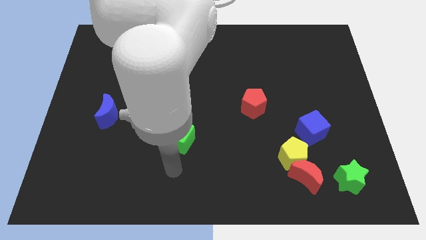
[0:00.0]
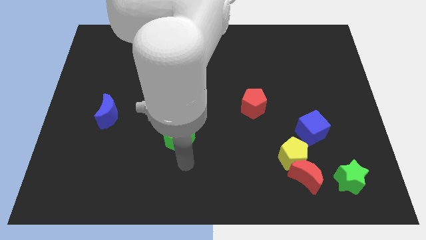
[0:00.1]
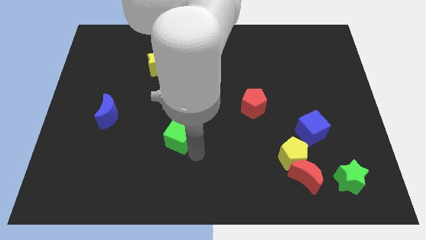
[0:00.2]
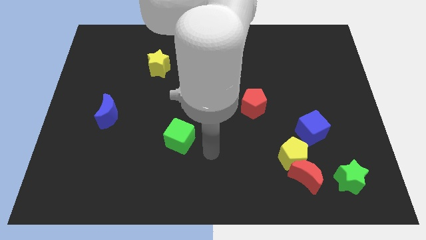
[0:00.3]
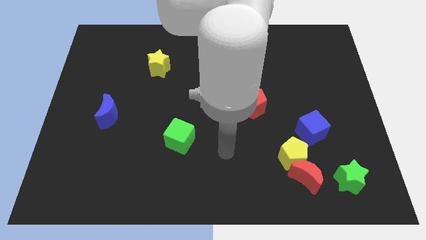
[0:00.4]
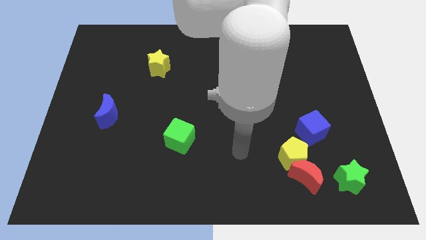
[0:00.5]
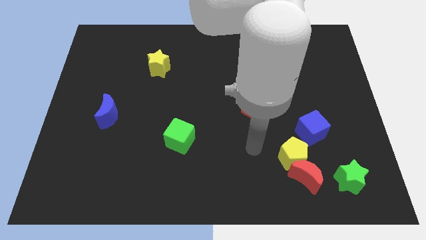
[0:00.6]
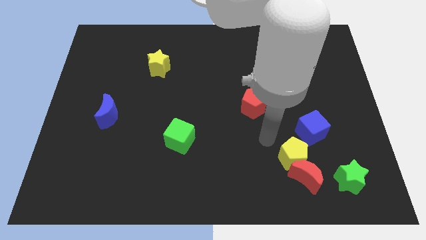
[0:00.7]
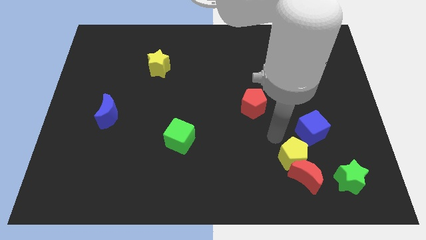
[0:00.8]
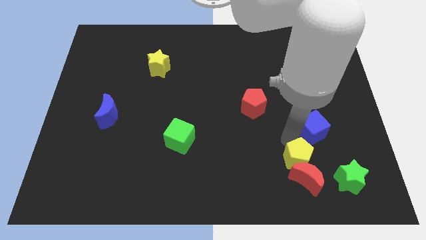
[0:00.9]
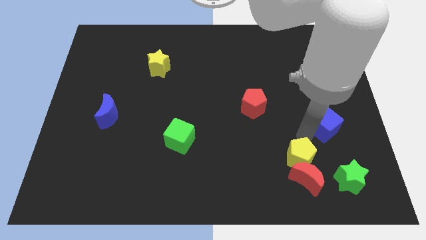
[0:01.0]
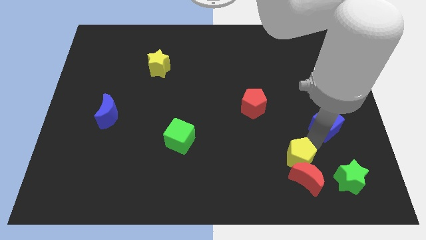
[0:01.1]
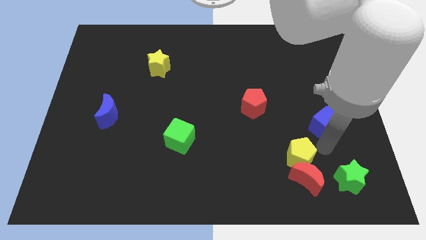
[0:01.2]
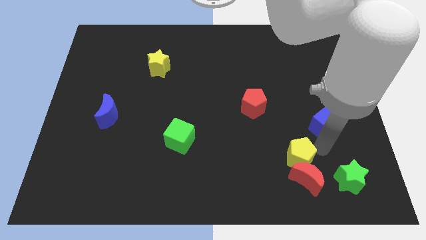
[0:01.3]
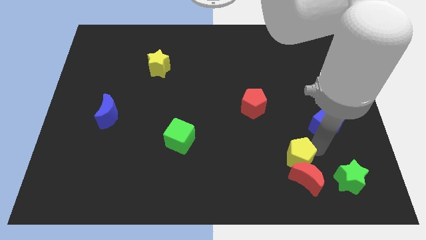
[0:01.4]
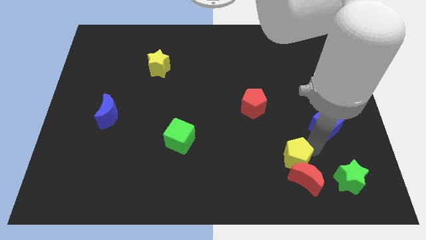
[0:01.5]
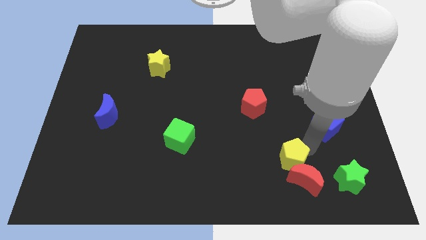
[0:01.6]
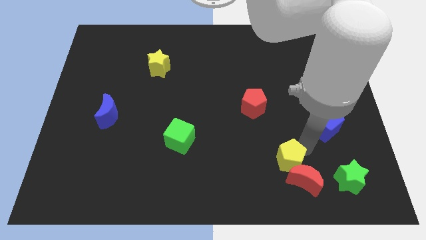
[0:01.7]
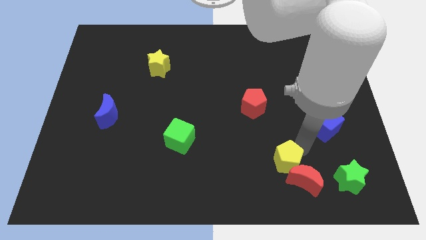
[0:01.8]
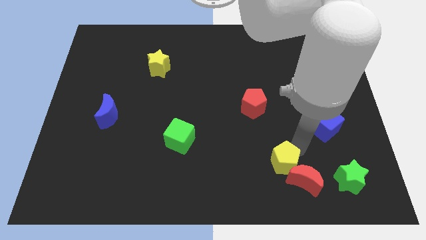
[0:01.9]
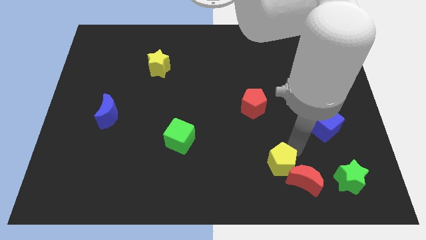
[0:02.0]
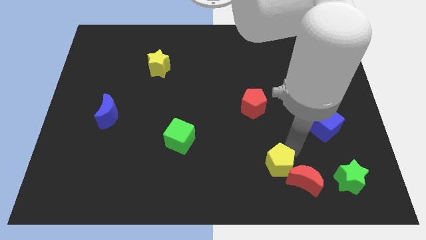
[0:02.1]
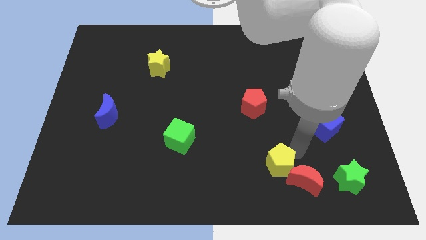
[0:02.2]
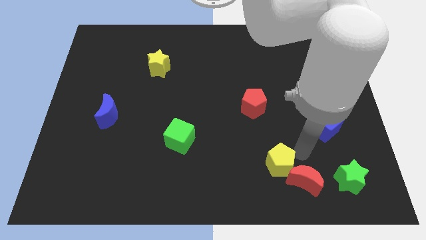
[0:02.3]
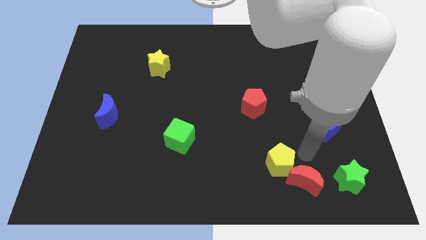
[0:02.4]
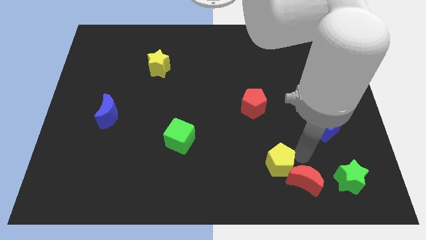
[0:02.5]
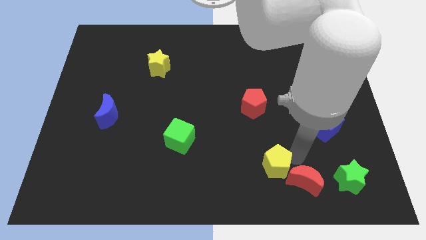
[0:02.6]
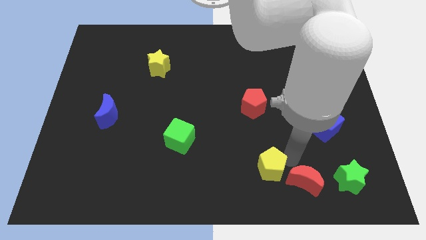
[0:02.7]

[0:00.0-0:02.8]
move the yellow pentagon away from the red moon and blue cube

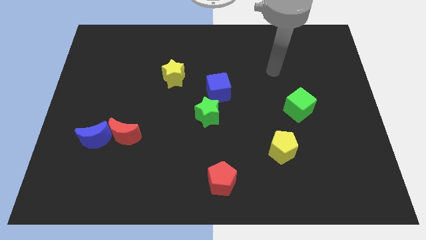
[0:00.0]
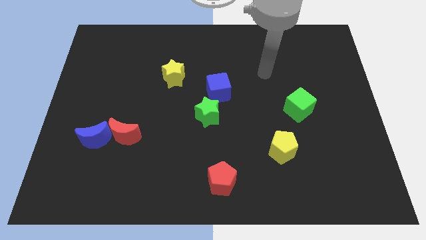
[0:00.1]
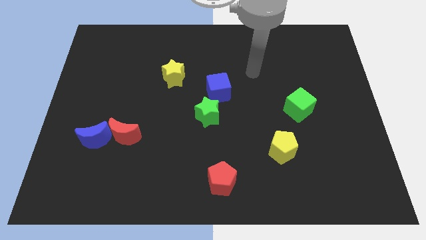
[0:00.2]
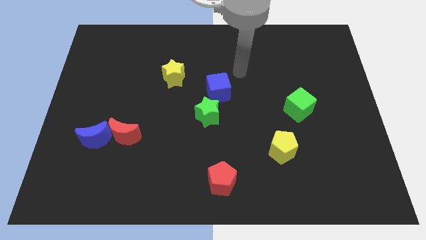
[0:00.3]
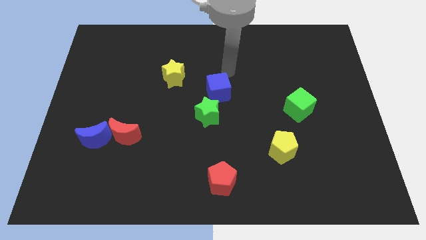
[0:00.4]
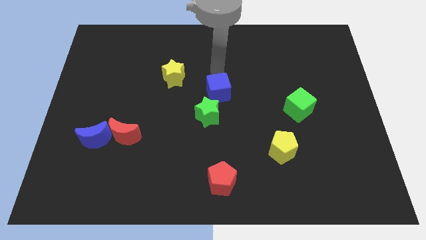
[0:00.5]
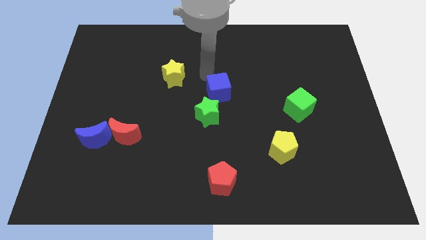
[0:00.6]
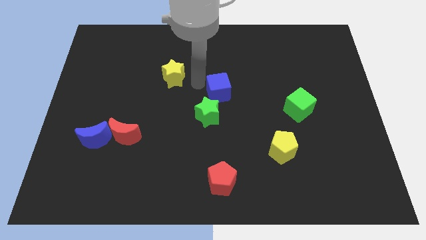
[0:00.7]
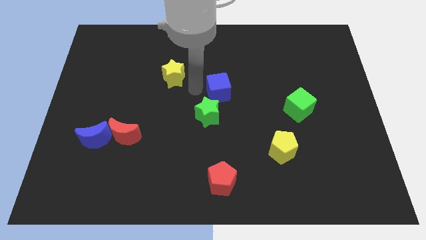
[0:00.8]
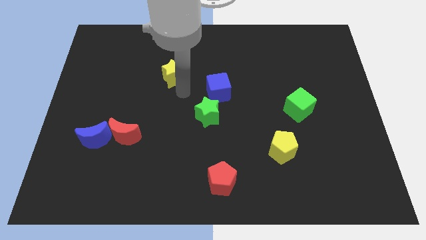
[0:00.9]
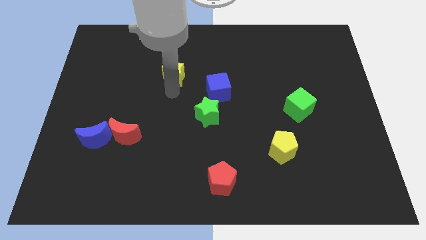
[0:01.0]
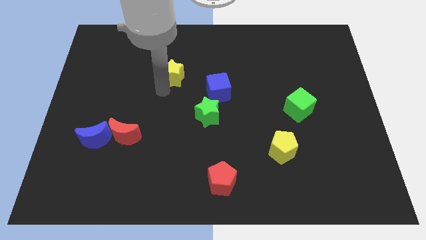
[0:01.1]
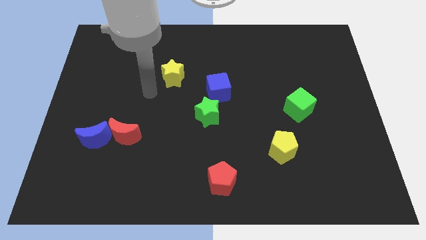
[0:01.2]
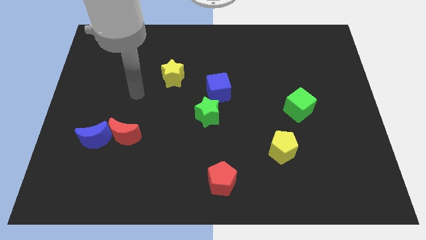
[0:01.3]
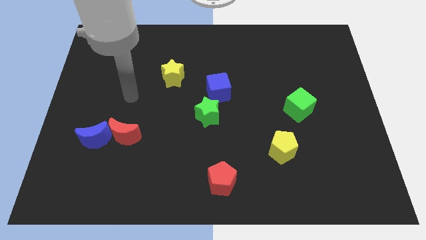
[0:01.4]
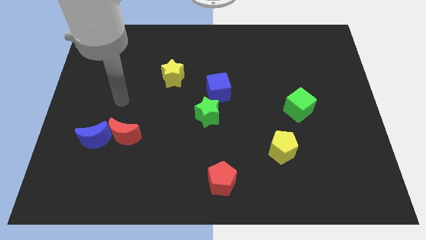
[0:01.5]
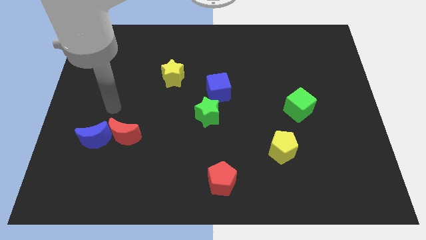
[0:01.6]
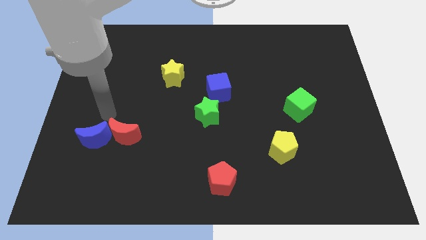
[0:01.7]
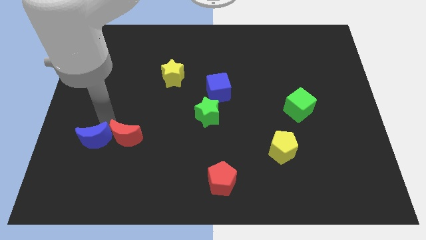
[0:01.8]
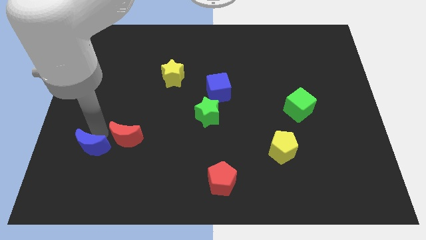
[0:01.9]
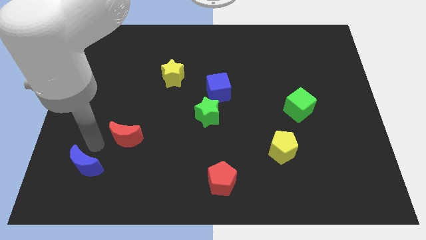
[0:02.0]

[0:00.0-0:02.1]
move the red moon away from the blue moon

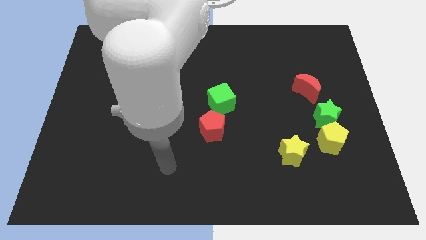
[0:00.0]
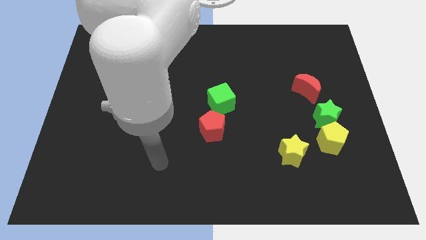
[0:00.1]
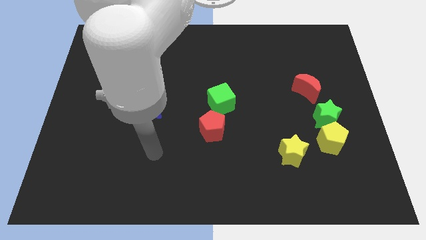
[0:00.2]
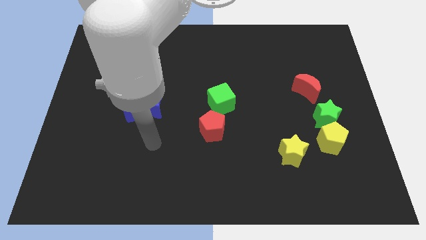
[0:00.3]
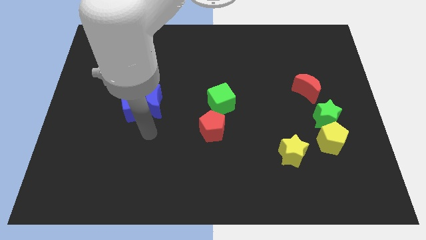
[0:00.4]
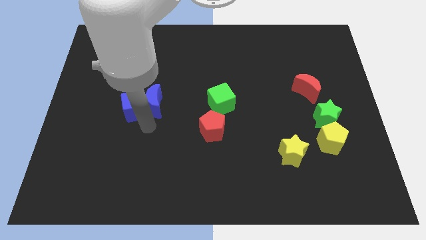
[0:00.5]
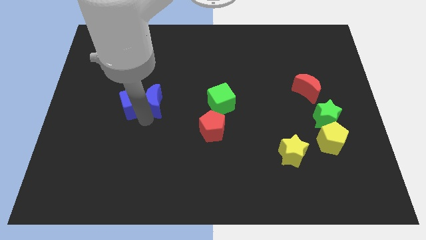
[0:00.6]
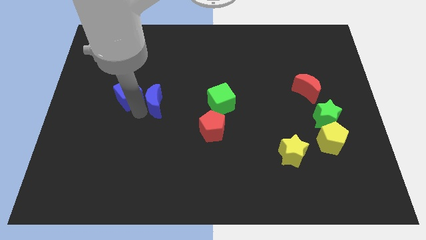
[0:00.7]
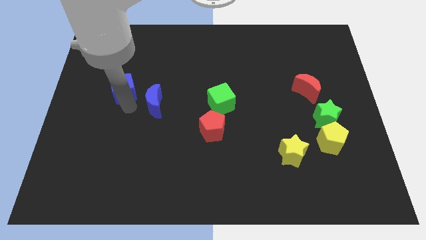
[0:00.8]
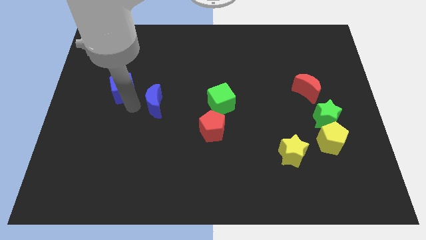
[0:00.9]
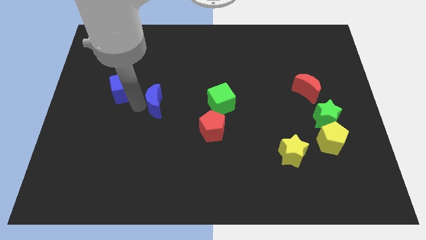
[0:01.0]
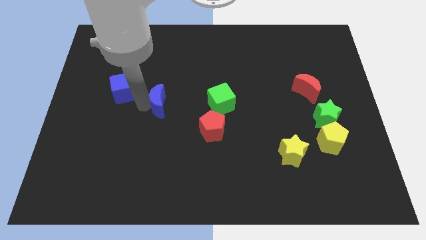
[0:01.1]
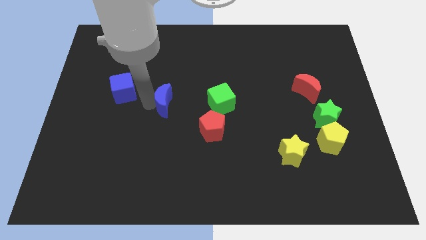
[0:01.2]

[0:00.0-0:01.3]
separate the blue moon from the blue cube

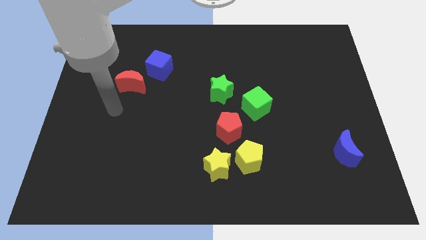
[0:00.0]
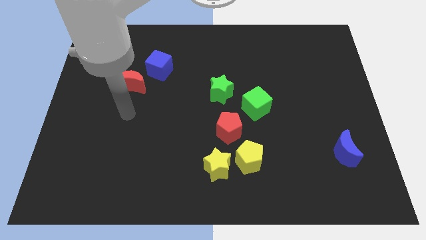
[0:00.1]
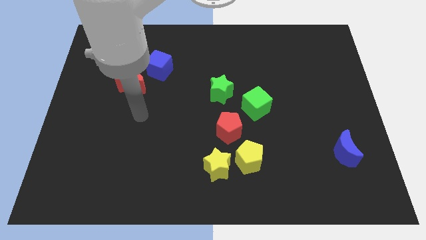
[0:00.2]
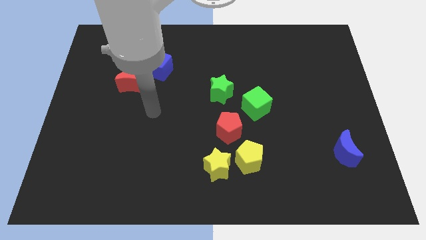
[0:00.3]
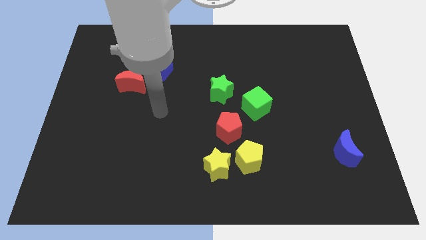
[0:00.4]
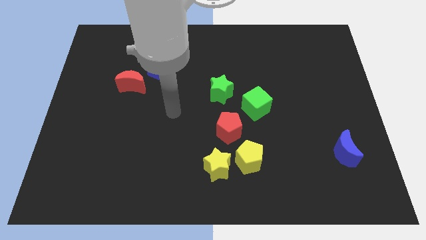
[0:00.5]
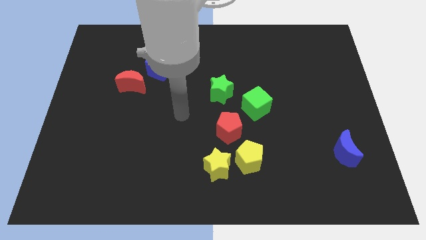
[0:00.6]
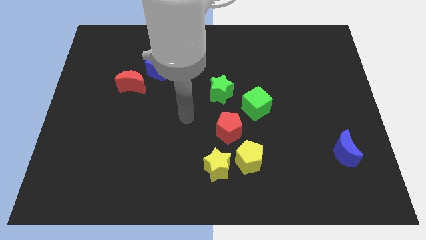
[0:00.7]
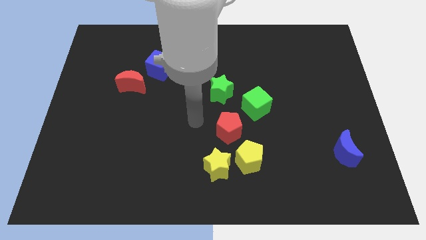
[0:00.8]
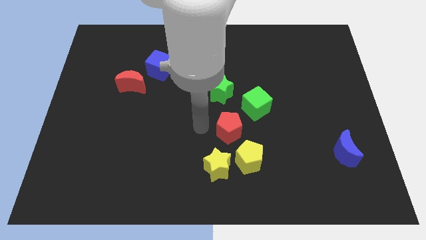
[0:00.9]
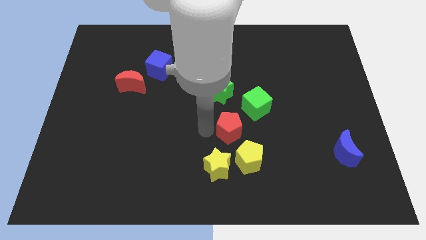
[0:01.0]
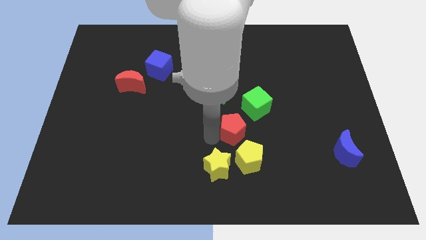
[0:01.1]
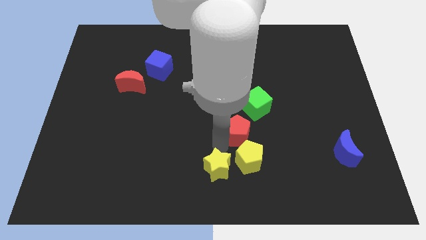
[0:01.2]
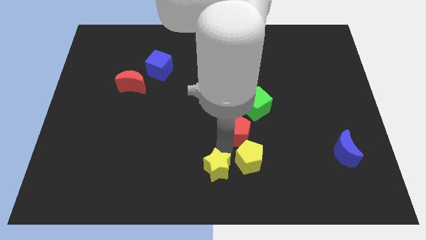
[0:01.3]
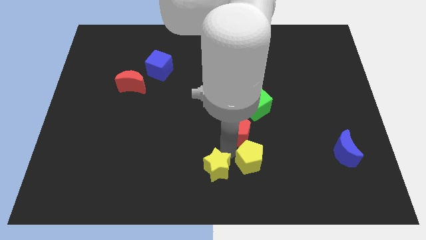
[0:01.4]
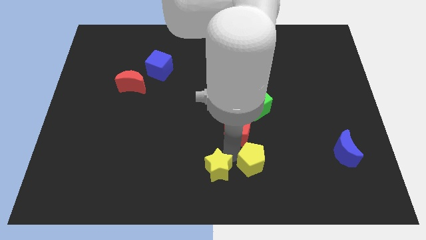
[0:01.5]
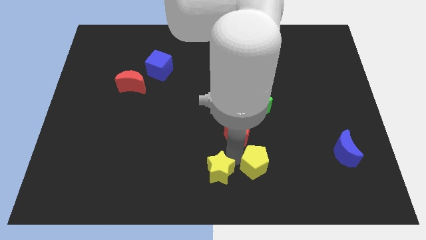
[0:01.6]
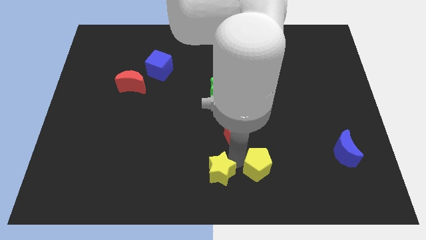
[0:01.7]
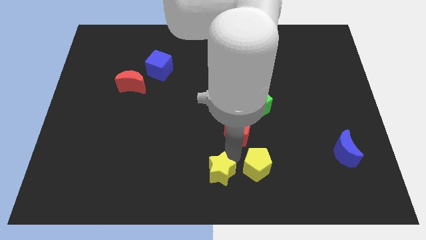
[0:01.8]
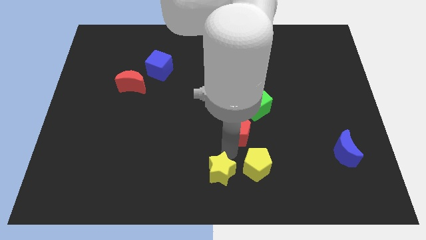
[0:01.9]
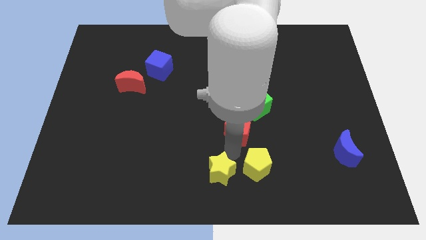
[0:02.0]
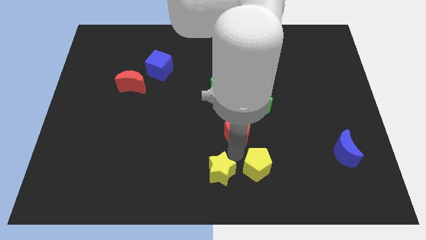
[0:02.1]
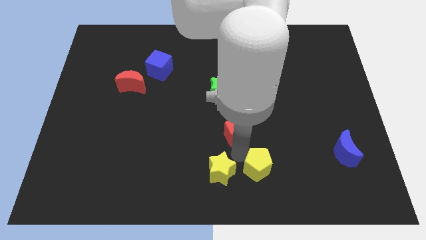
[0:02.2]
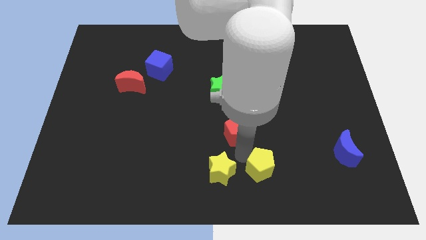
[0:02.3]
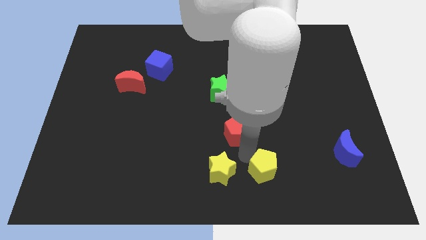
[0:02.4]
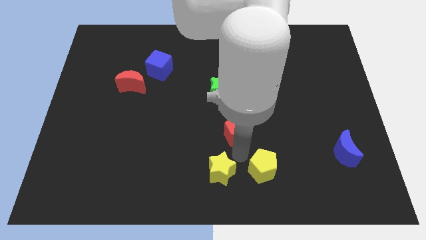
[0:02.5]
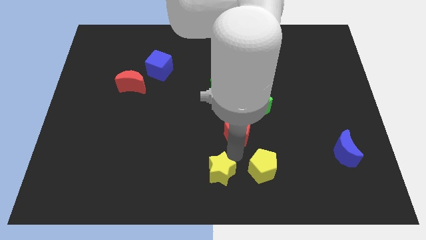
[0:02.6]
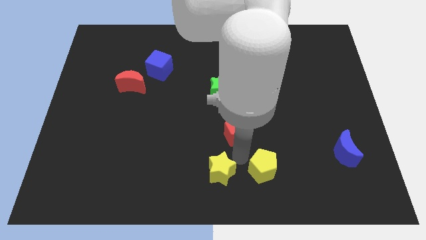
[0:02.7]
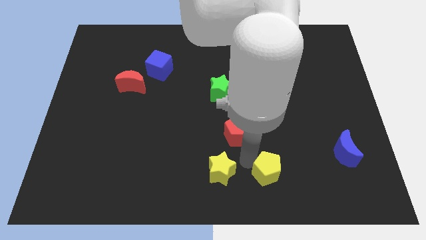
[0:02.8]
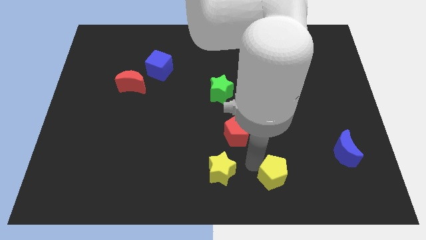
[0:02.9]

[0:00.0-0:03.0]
pull the yellow pentagon apart from the yellow star and red pentagon
